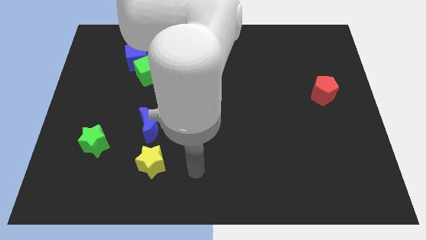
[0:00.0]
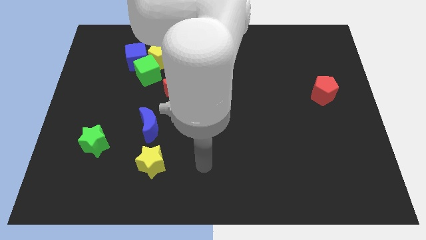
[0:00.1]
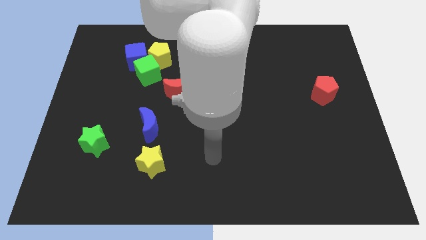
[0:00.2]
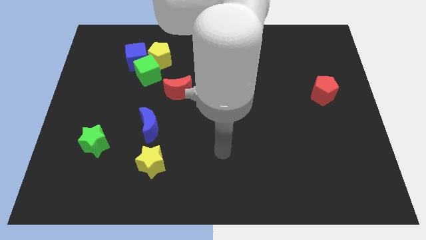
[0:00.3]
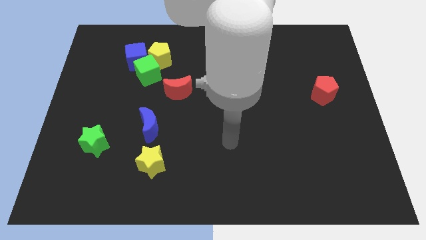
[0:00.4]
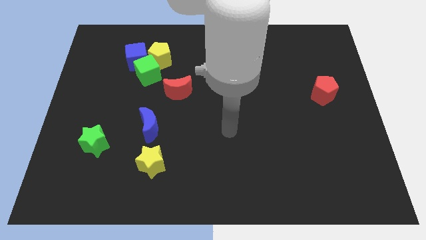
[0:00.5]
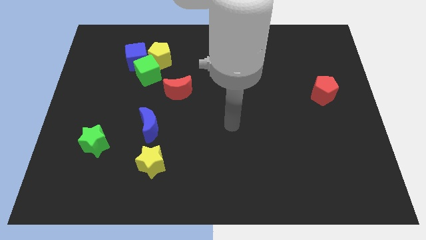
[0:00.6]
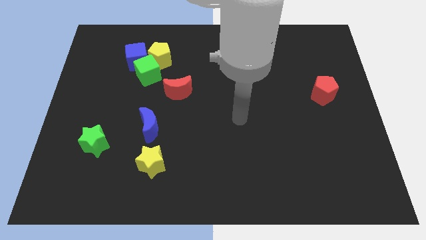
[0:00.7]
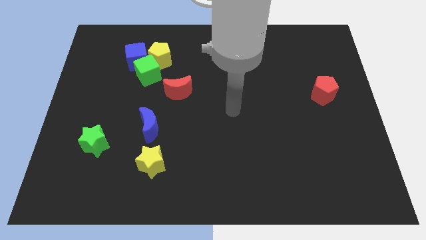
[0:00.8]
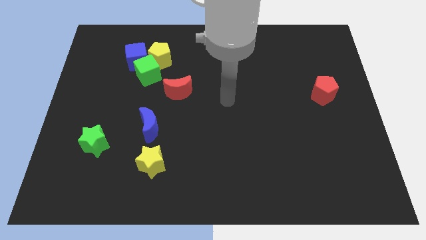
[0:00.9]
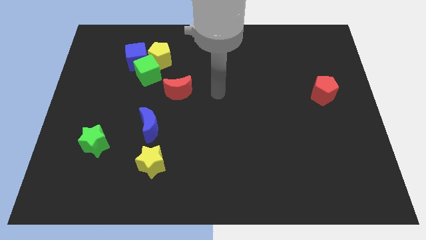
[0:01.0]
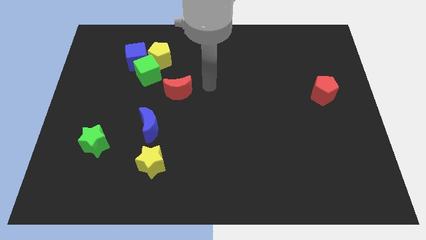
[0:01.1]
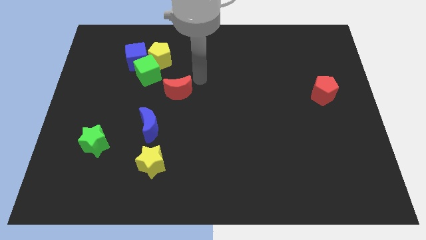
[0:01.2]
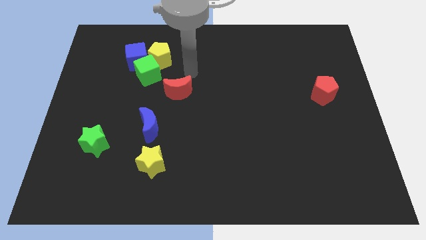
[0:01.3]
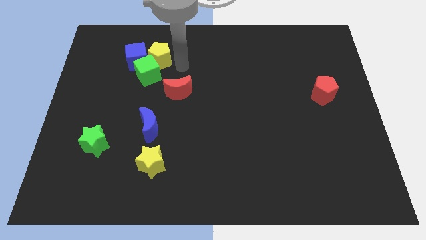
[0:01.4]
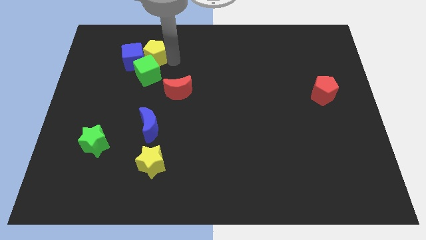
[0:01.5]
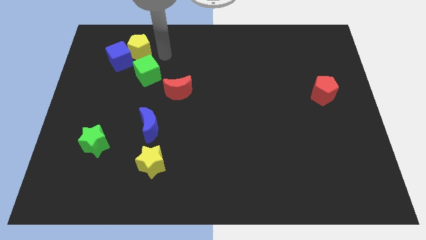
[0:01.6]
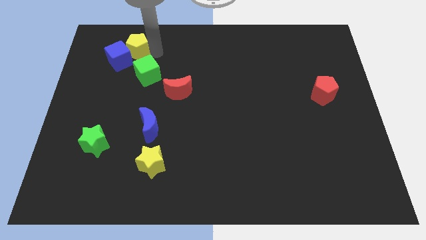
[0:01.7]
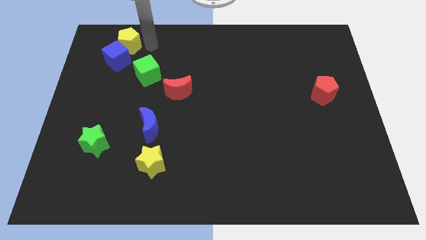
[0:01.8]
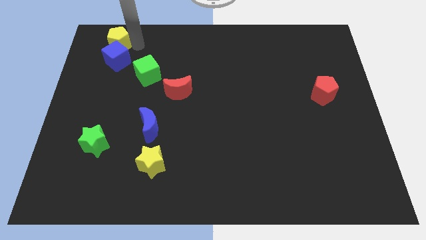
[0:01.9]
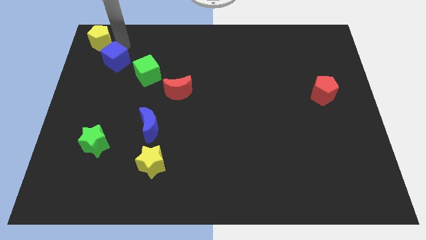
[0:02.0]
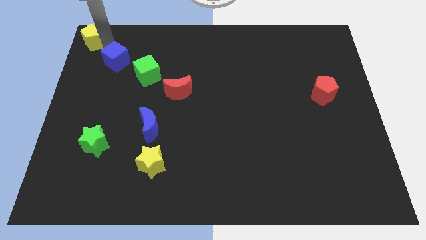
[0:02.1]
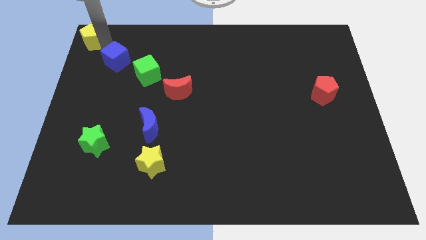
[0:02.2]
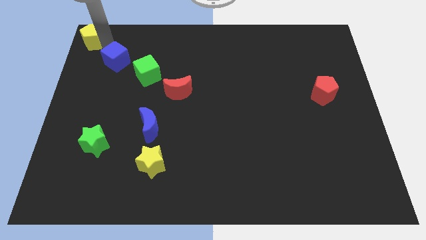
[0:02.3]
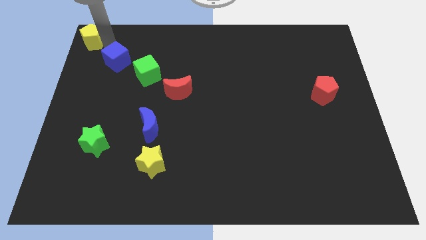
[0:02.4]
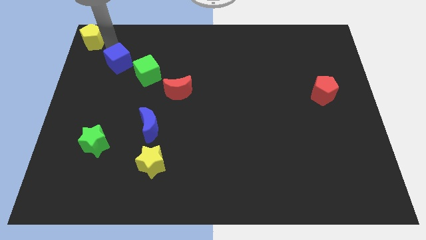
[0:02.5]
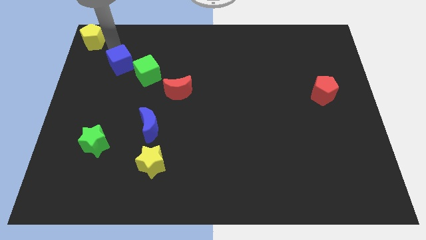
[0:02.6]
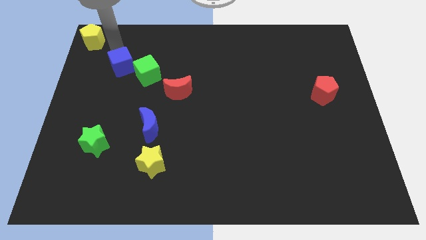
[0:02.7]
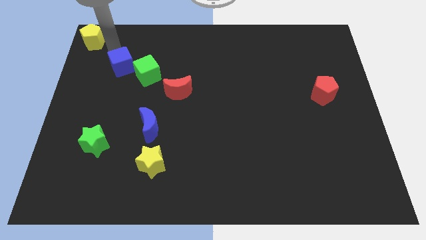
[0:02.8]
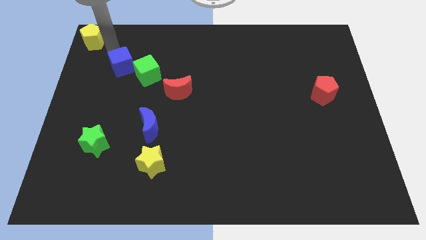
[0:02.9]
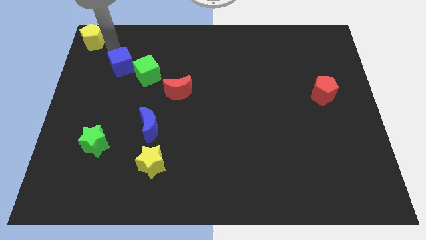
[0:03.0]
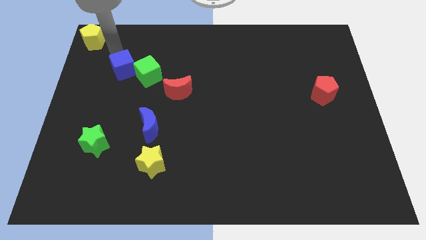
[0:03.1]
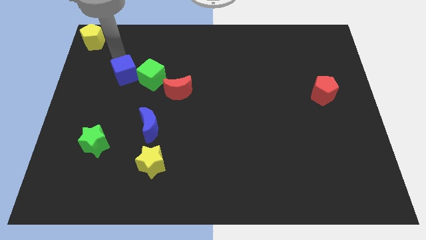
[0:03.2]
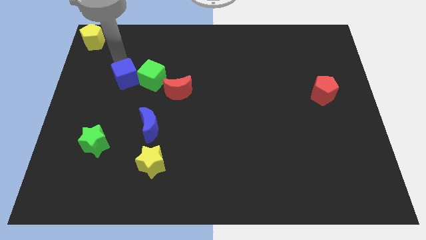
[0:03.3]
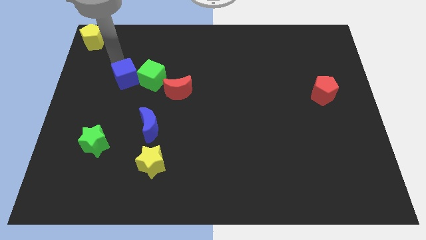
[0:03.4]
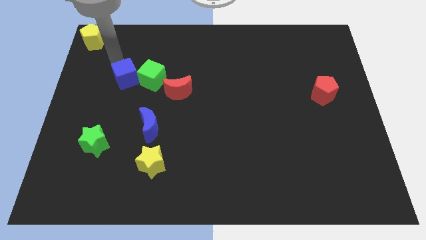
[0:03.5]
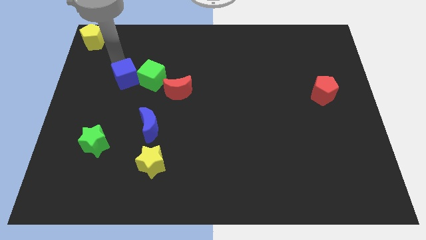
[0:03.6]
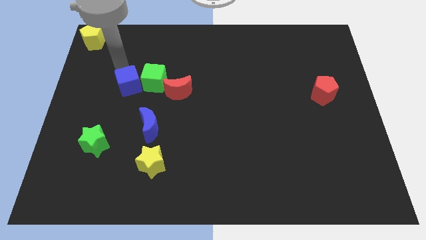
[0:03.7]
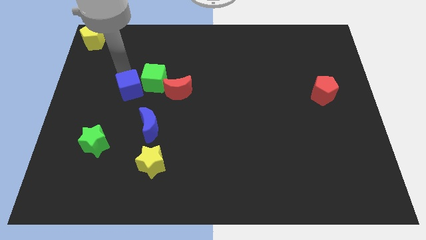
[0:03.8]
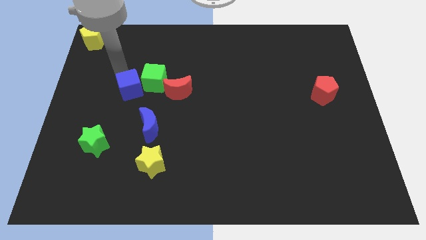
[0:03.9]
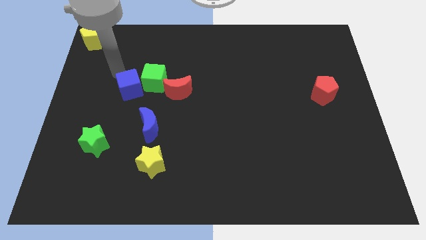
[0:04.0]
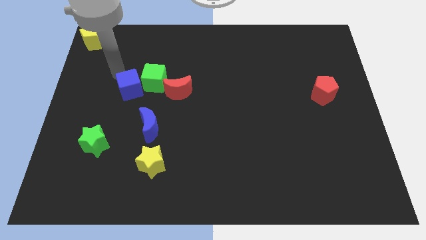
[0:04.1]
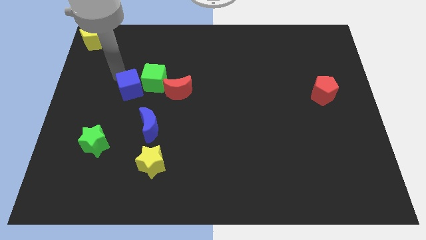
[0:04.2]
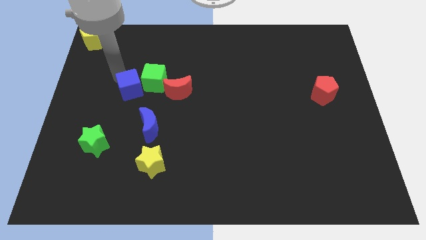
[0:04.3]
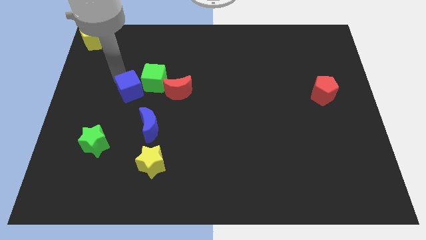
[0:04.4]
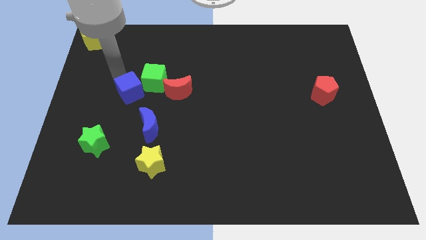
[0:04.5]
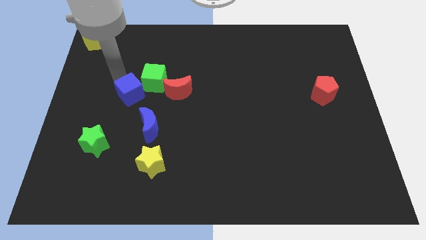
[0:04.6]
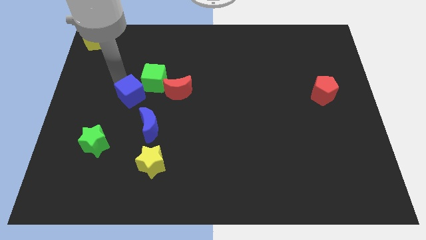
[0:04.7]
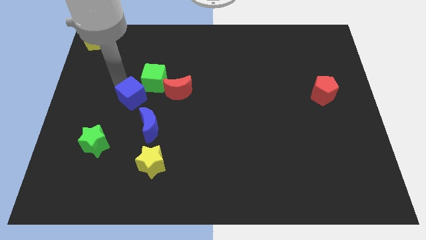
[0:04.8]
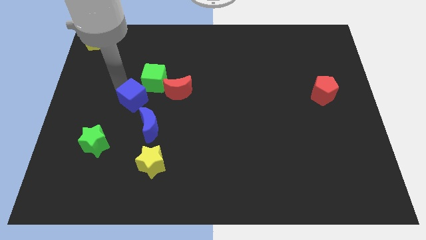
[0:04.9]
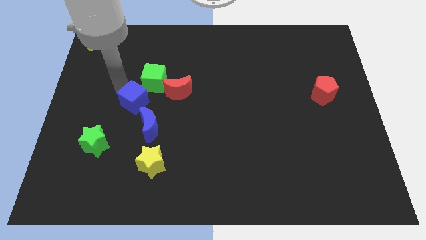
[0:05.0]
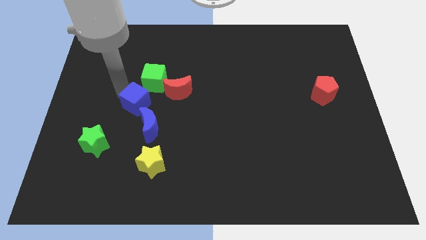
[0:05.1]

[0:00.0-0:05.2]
put the blue cube to the bottom left of the red moon

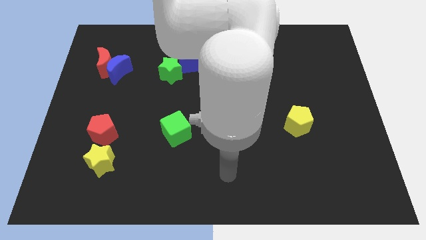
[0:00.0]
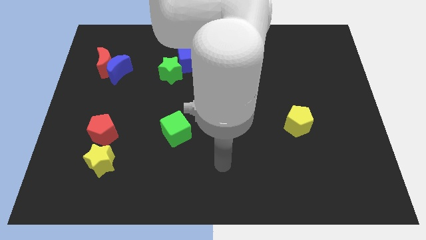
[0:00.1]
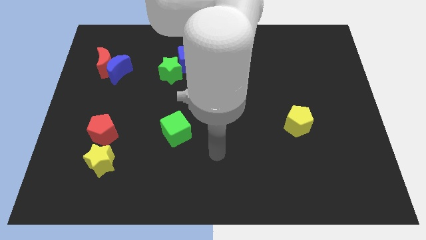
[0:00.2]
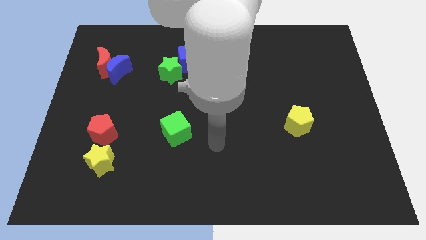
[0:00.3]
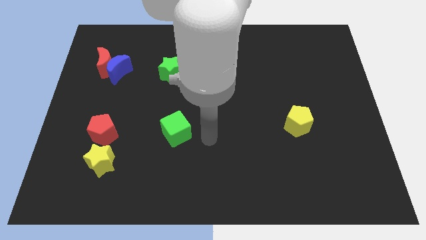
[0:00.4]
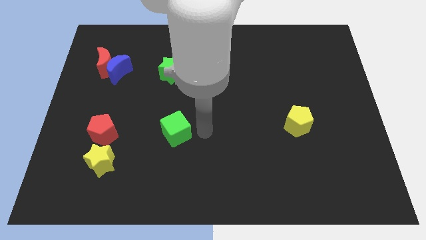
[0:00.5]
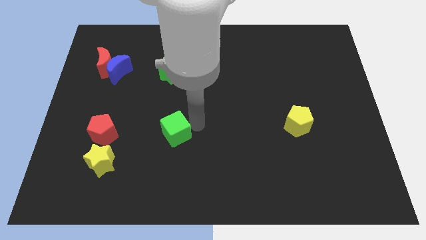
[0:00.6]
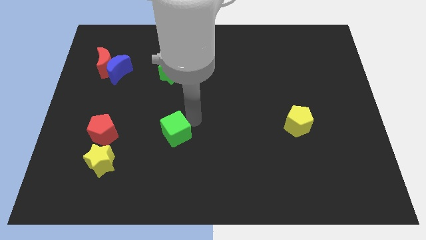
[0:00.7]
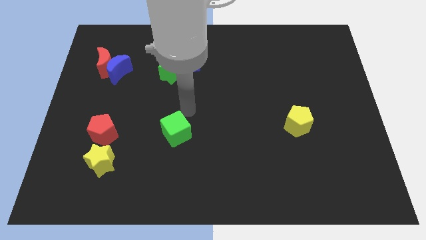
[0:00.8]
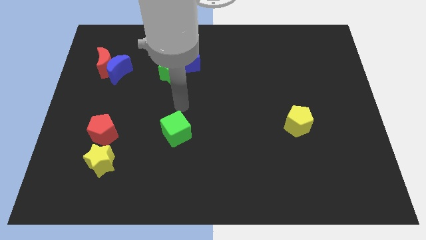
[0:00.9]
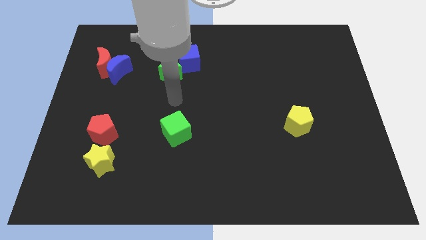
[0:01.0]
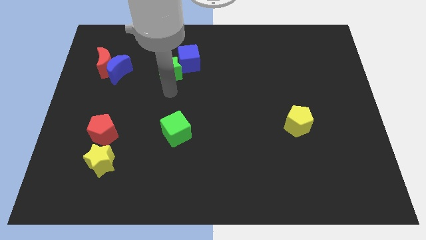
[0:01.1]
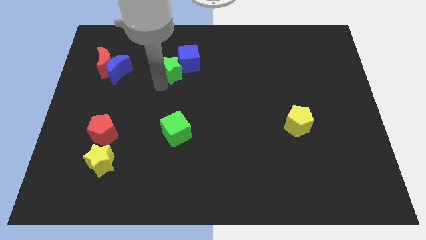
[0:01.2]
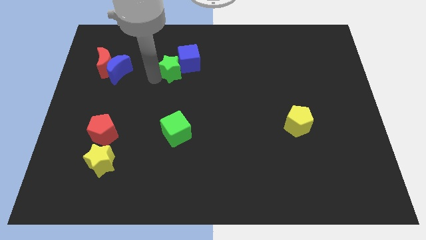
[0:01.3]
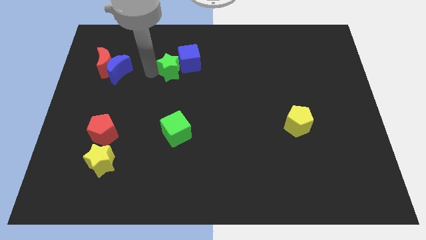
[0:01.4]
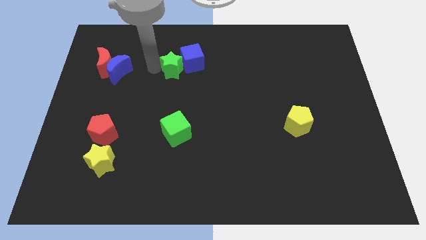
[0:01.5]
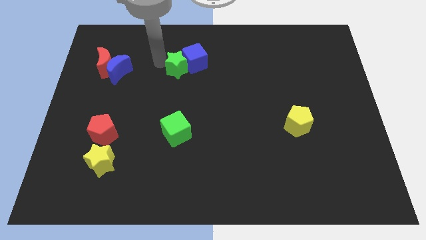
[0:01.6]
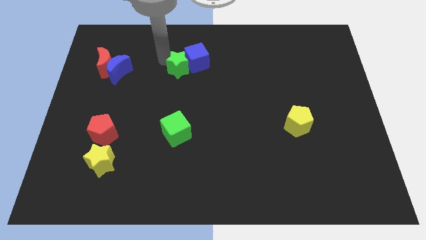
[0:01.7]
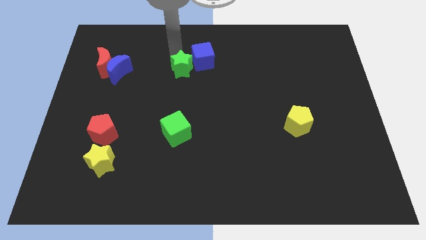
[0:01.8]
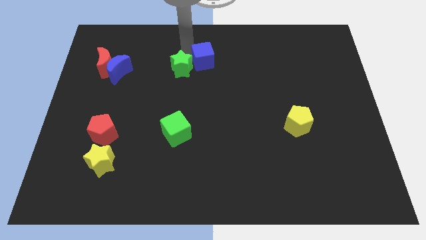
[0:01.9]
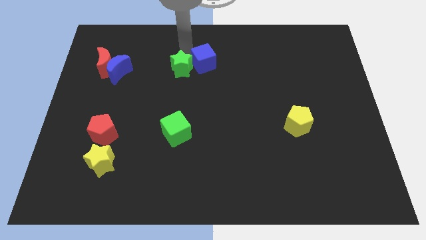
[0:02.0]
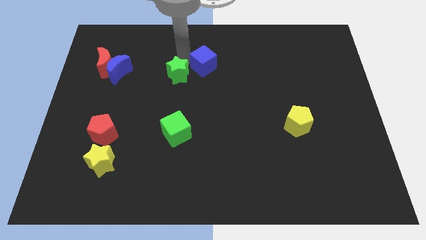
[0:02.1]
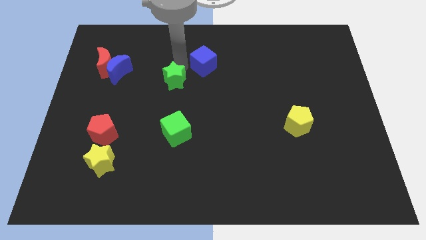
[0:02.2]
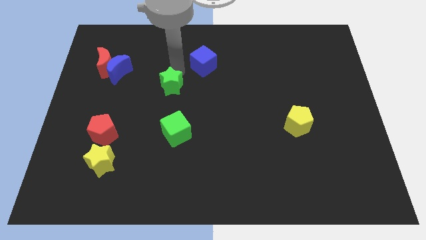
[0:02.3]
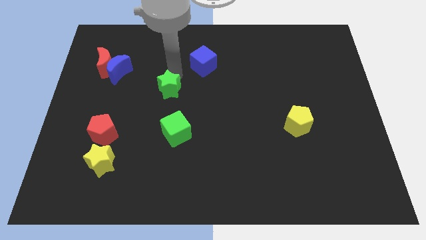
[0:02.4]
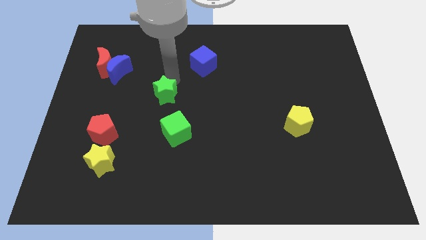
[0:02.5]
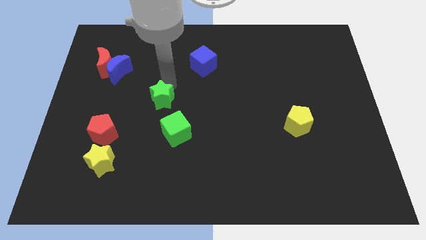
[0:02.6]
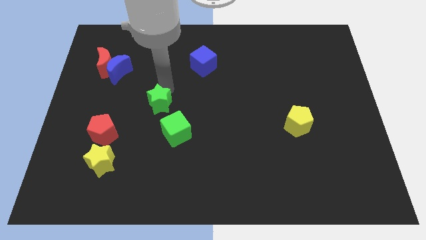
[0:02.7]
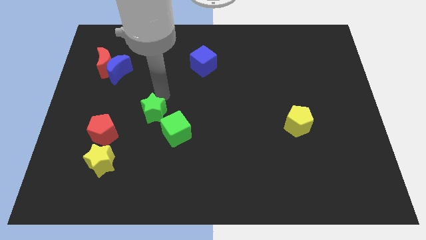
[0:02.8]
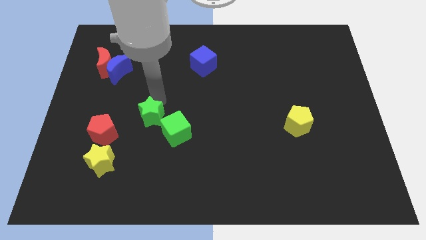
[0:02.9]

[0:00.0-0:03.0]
put the green star just right of the red pentagon
